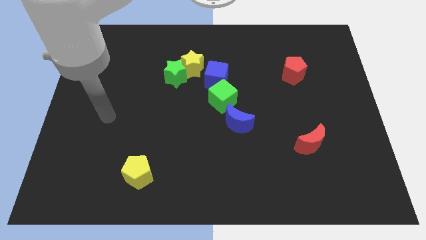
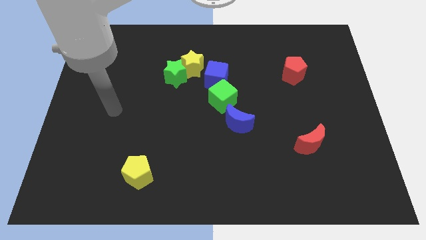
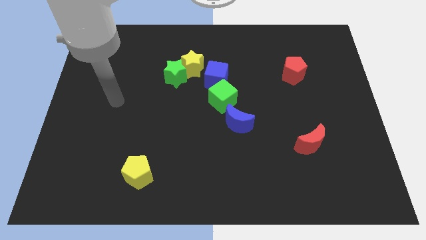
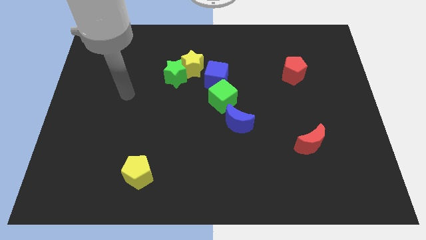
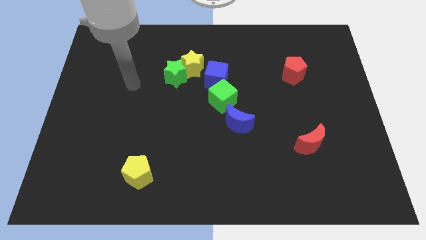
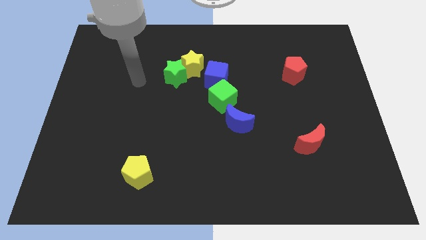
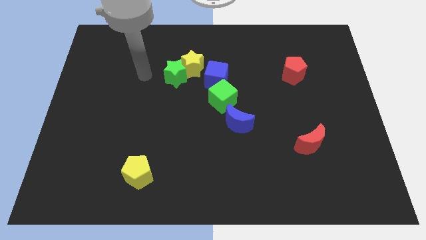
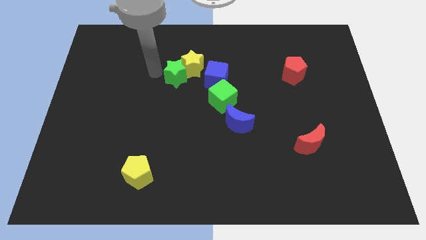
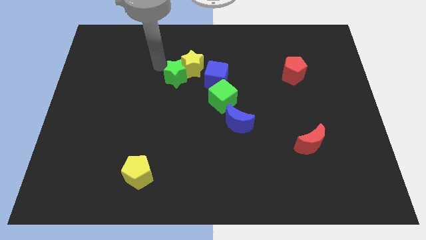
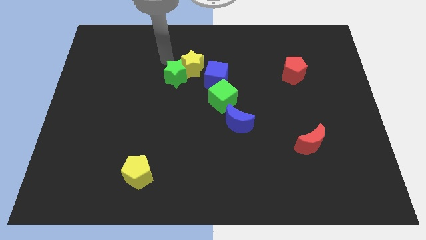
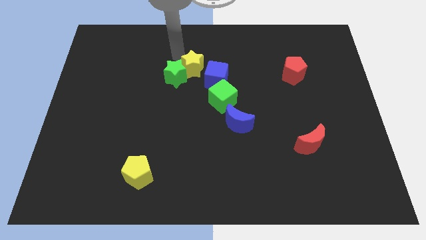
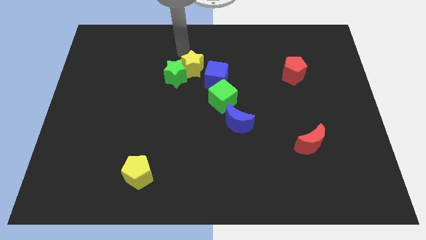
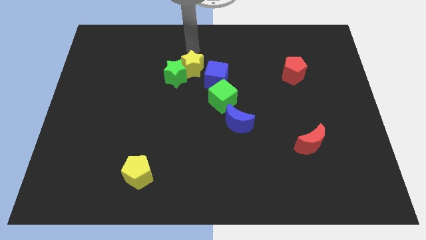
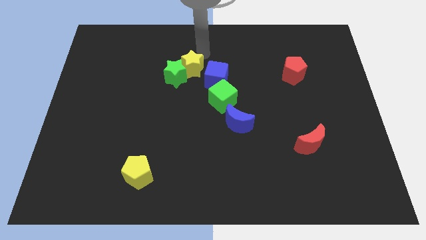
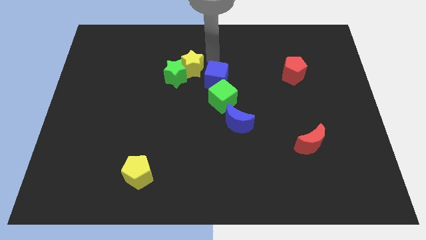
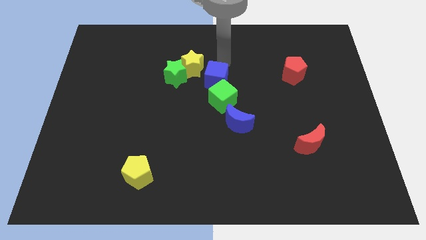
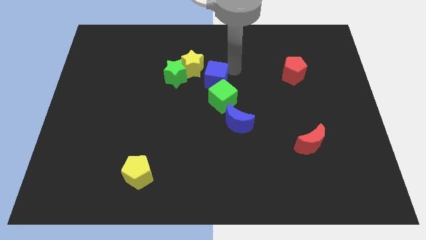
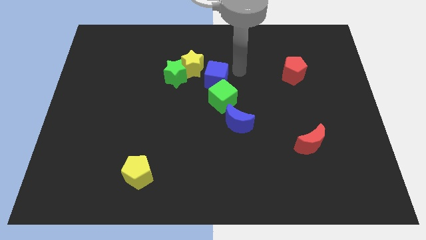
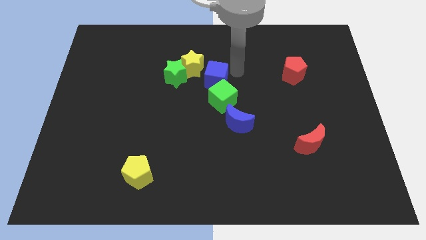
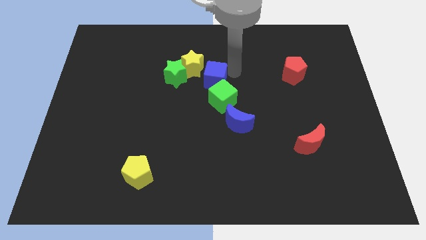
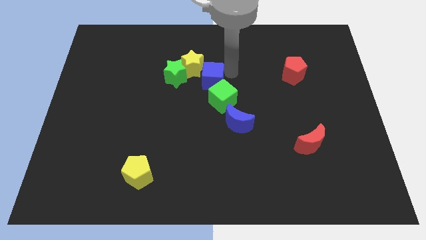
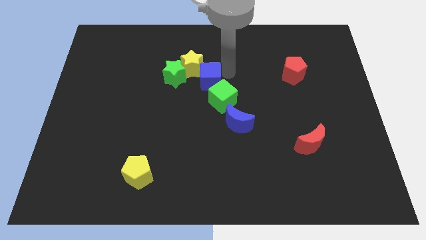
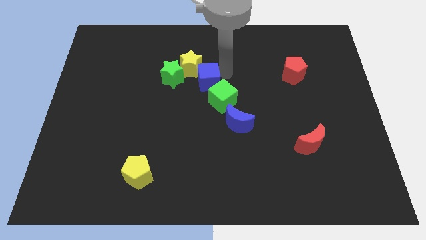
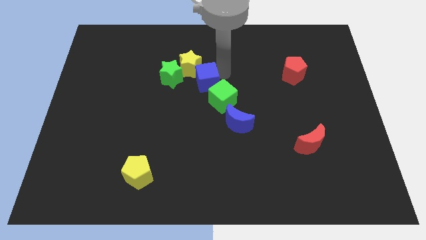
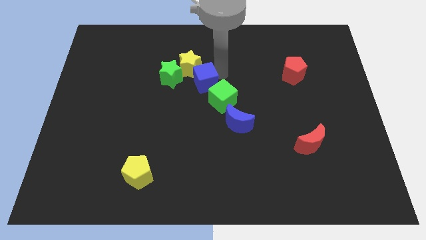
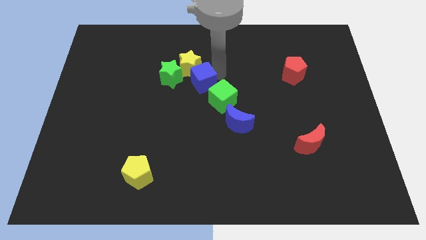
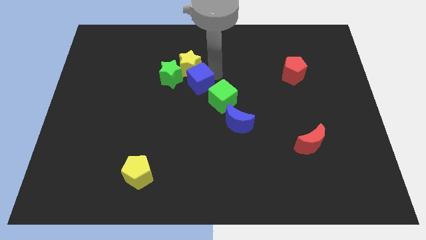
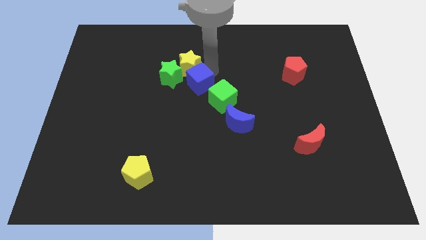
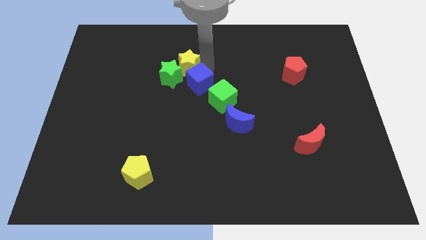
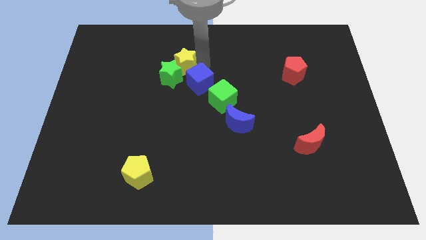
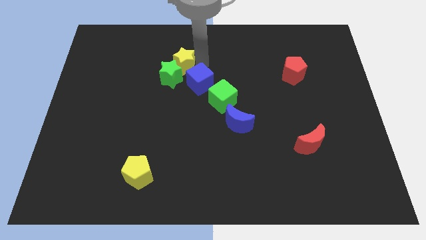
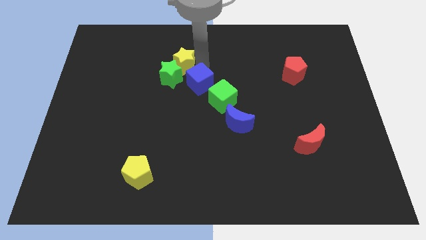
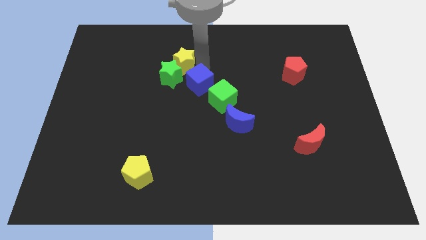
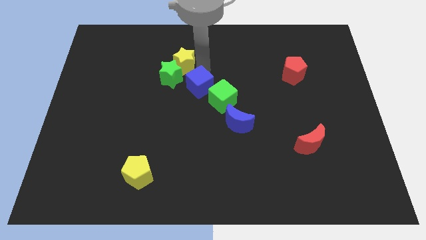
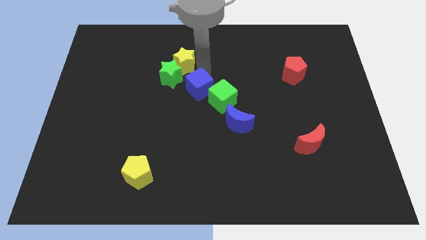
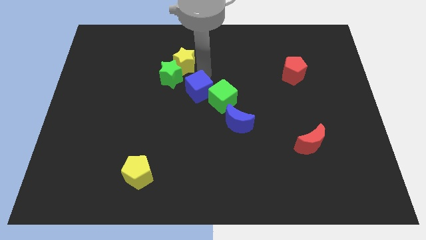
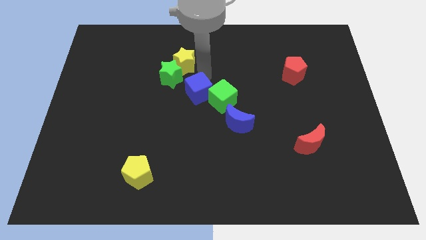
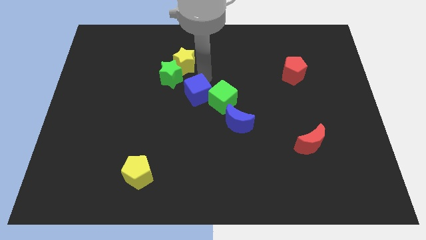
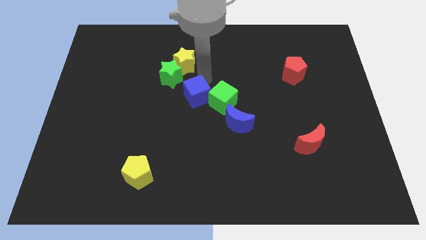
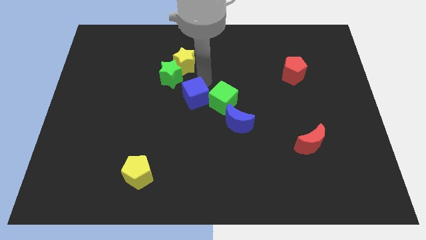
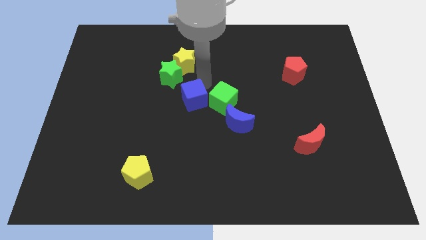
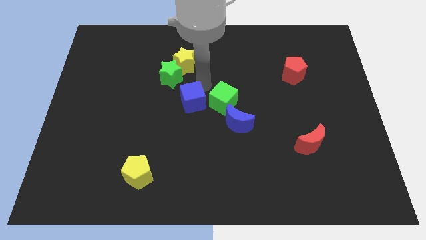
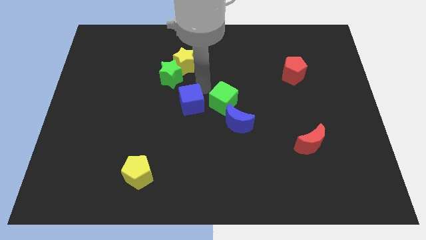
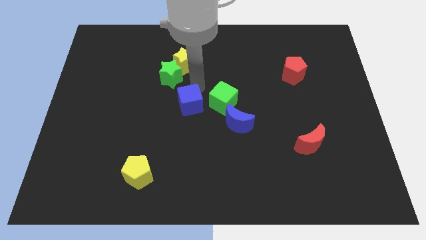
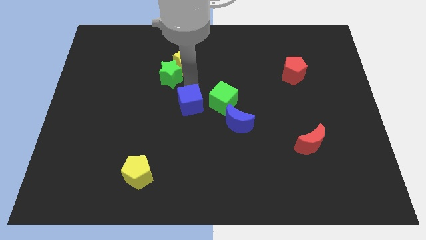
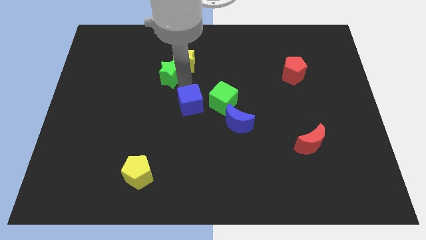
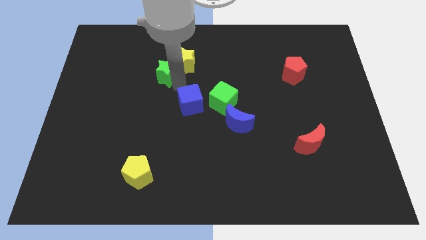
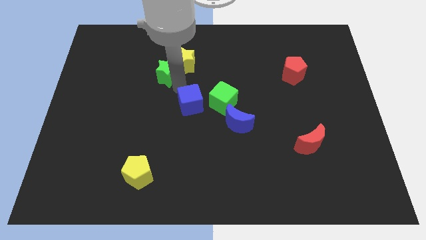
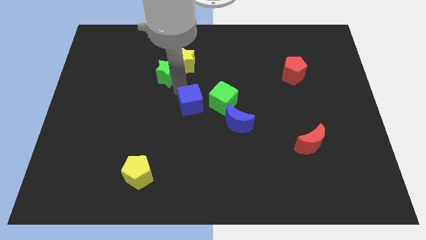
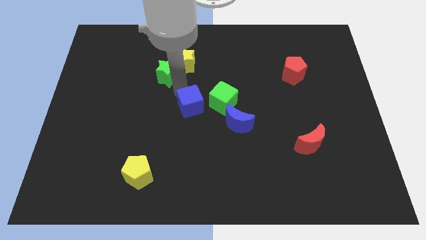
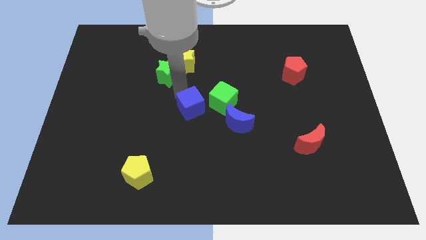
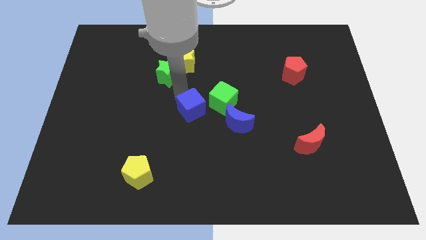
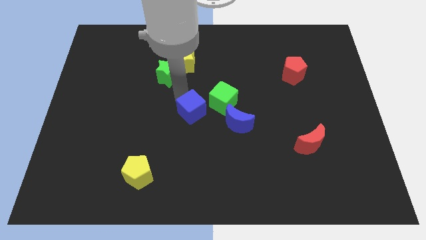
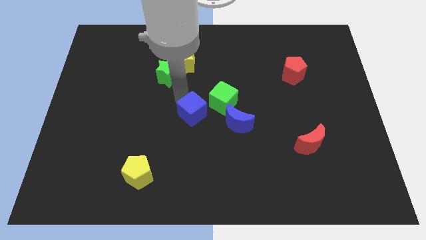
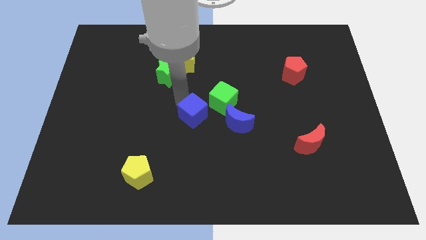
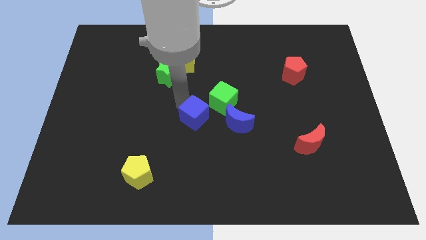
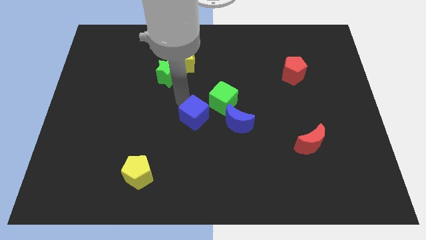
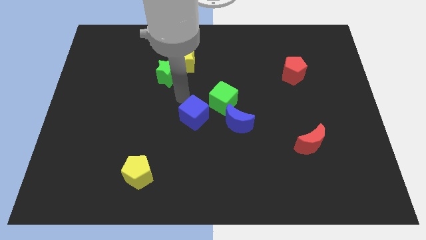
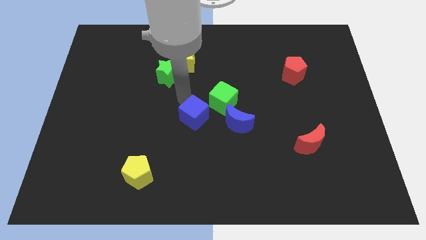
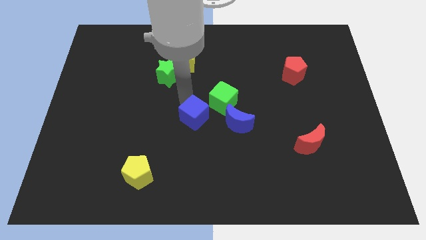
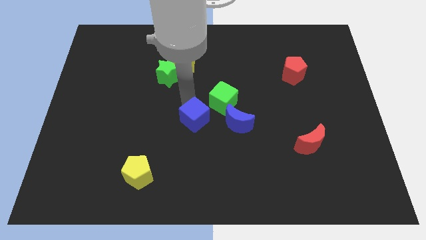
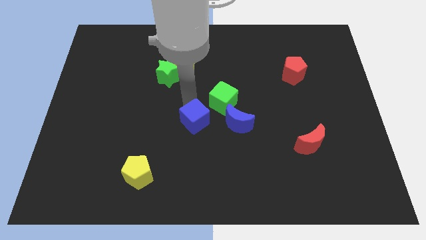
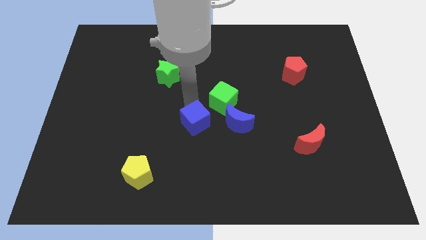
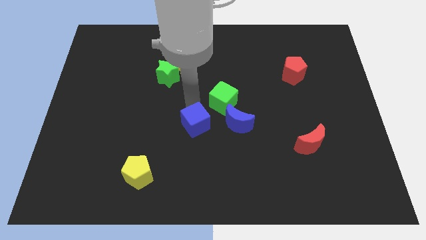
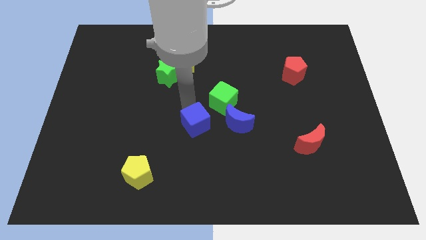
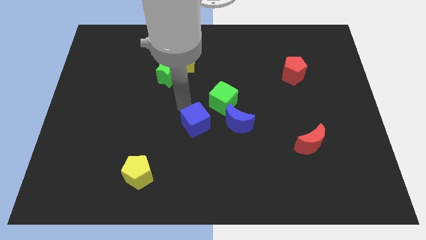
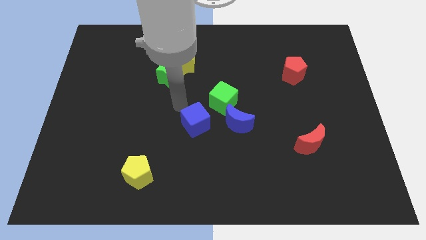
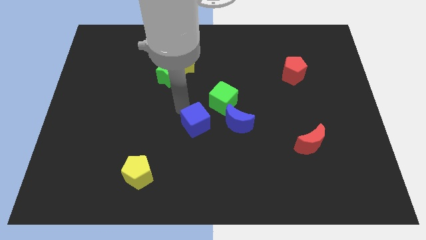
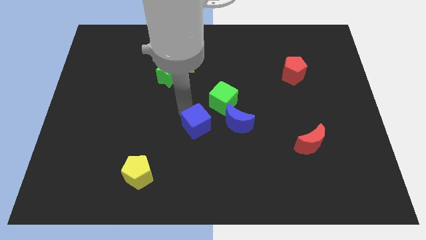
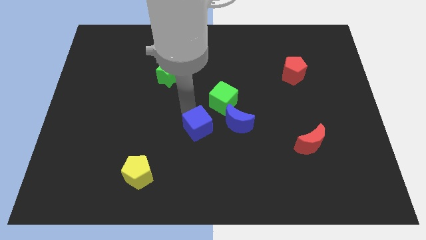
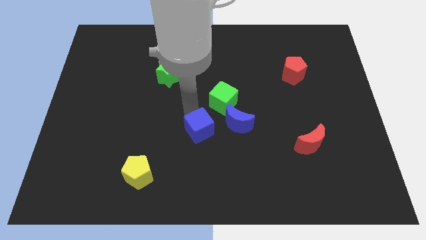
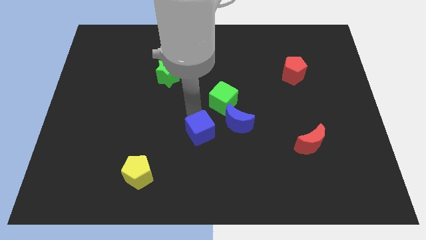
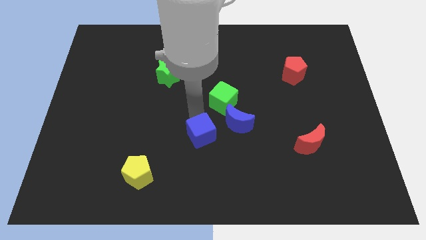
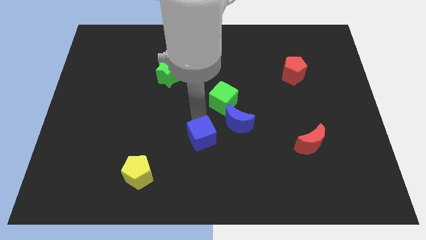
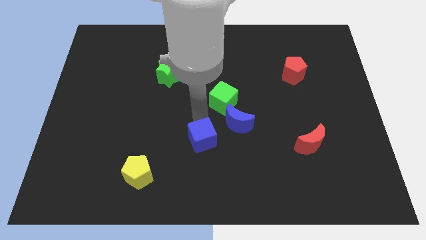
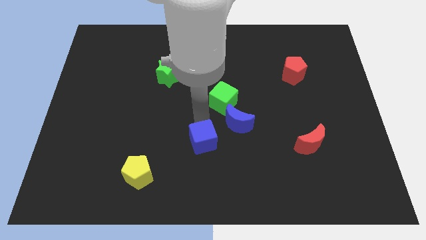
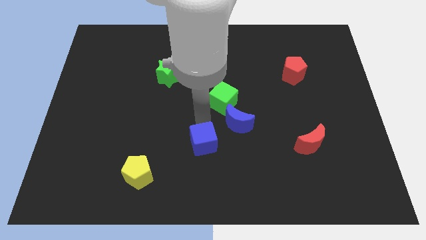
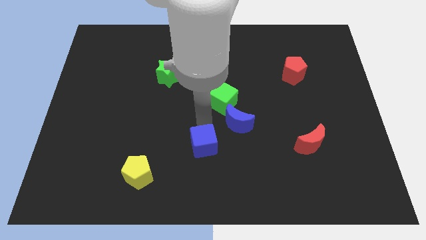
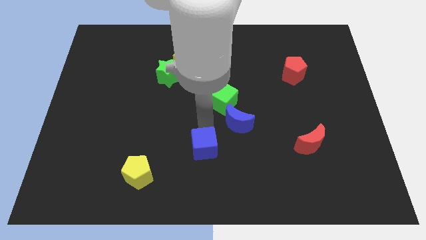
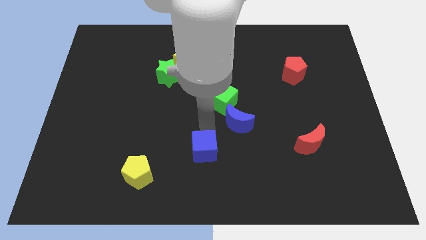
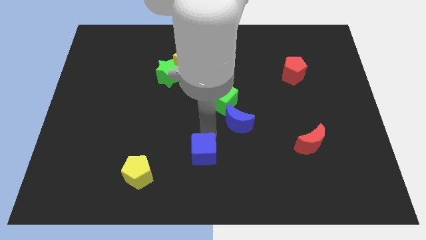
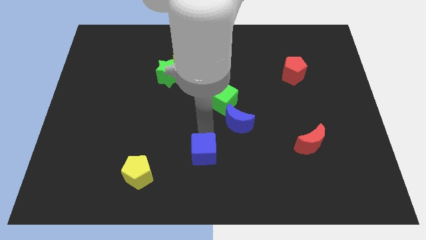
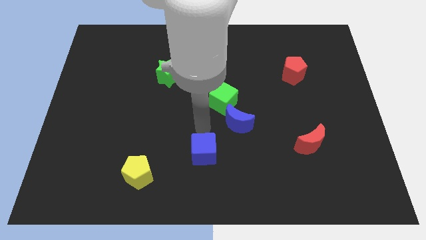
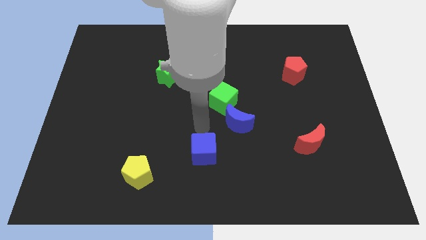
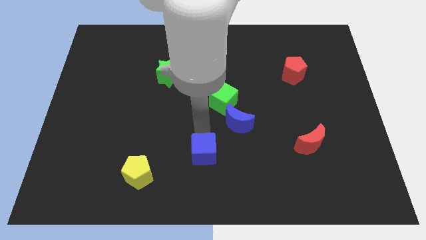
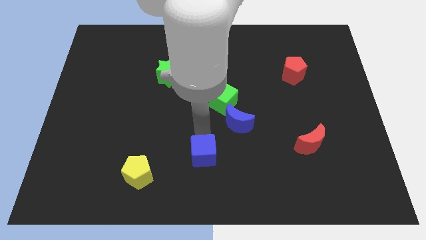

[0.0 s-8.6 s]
move the blue cube to the bottom side
